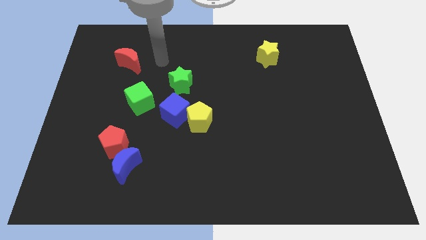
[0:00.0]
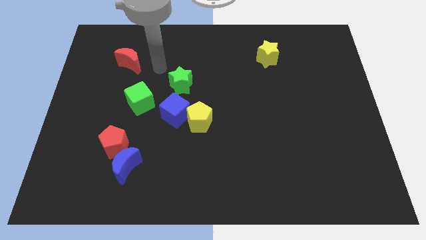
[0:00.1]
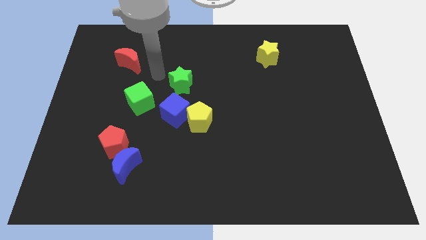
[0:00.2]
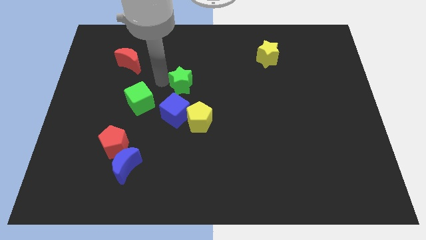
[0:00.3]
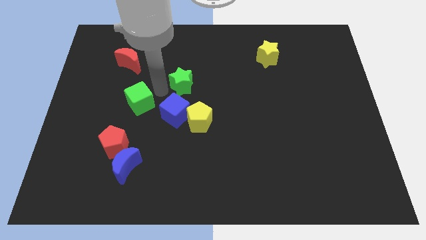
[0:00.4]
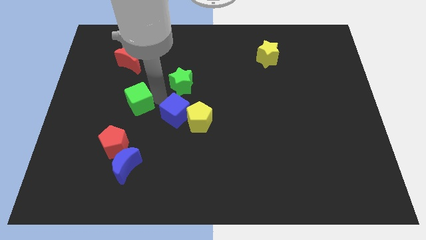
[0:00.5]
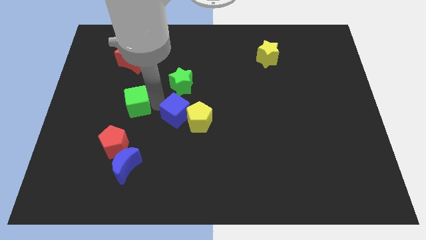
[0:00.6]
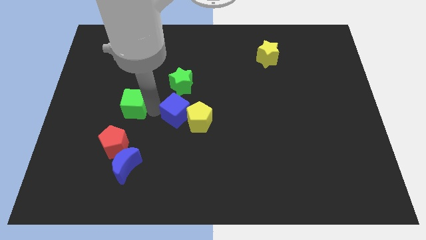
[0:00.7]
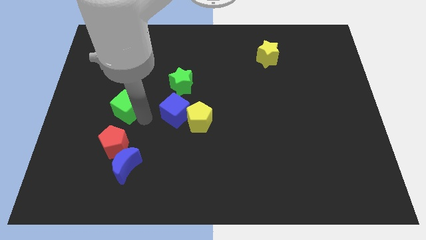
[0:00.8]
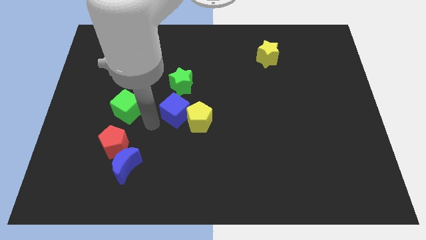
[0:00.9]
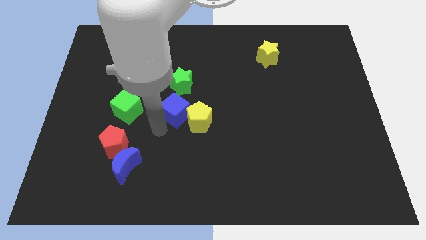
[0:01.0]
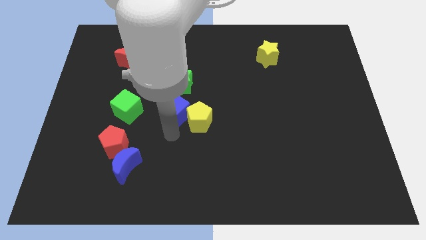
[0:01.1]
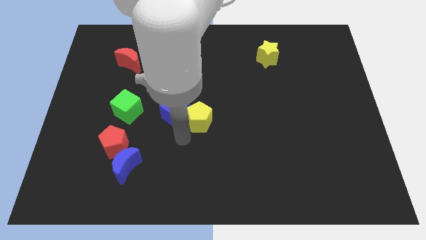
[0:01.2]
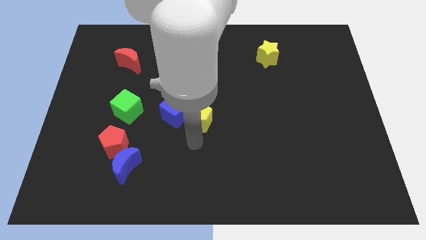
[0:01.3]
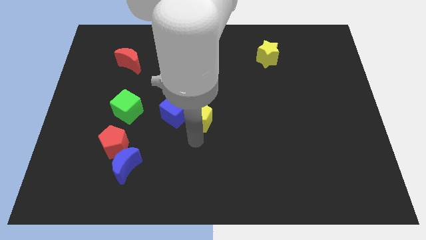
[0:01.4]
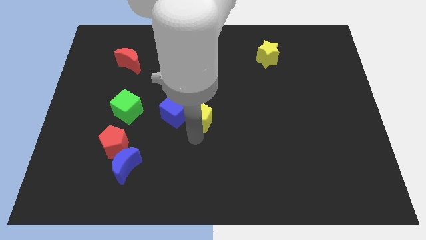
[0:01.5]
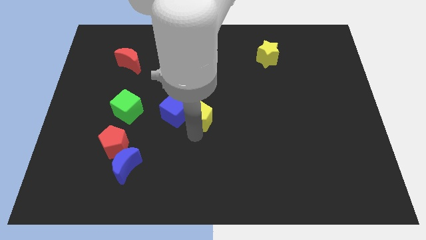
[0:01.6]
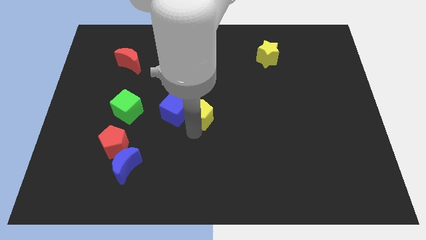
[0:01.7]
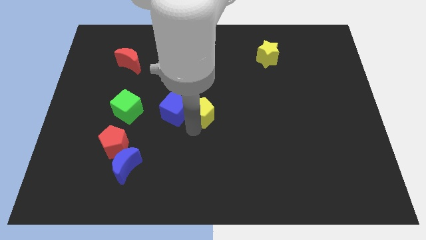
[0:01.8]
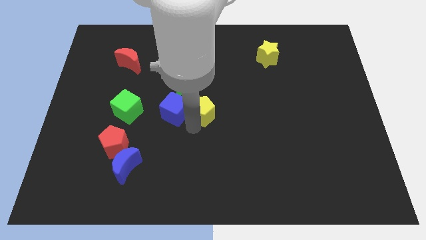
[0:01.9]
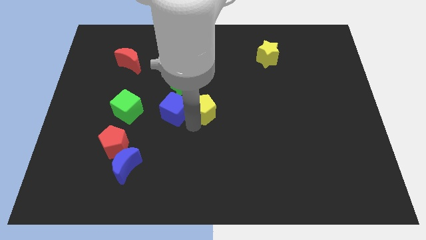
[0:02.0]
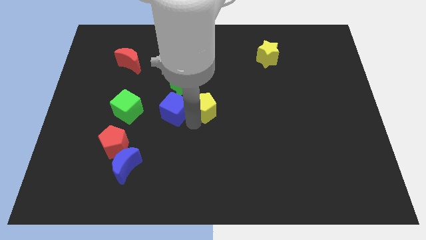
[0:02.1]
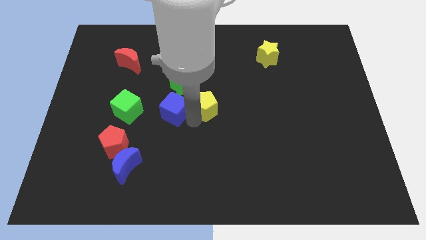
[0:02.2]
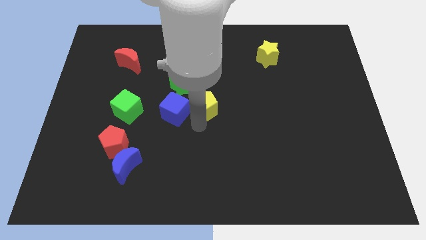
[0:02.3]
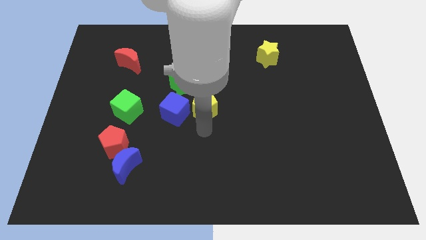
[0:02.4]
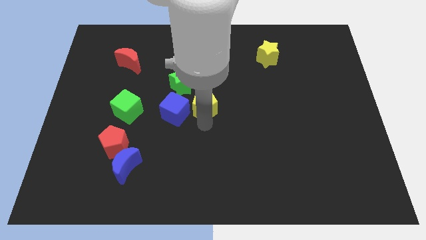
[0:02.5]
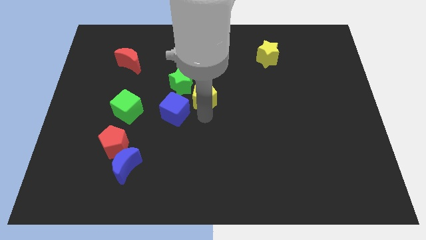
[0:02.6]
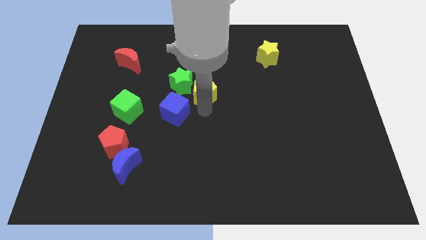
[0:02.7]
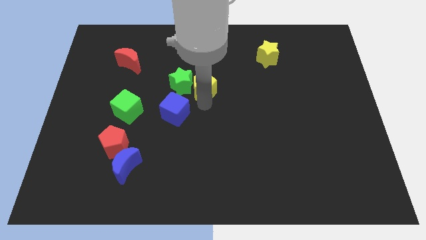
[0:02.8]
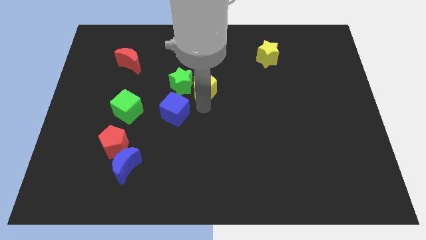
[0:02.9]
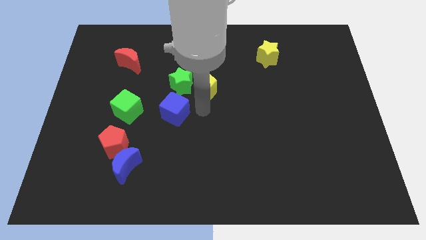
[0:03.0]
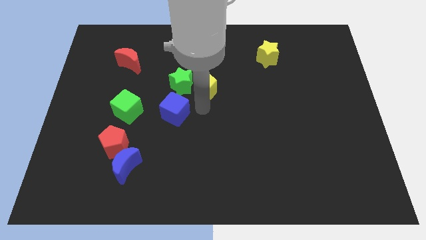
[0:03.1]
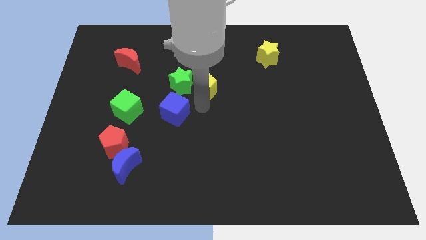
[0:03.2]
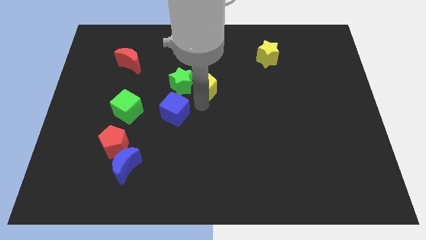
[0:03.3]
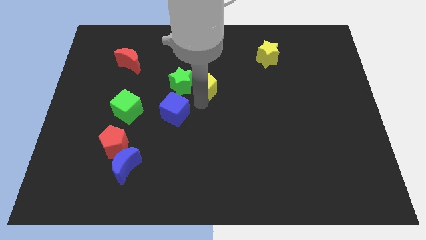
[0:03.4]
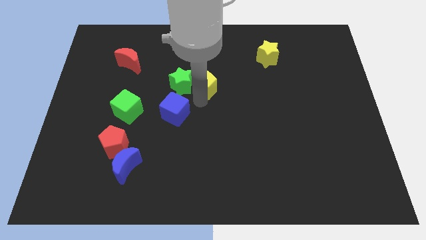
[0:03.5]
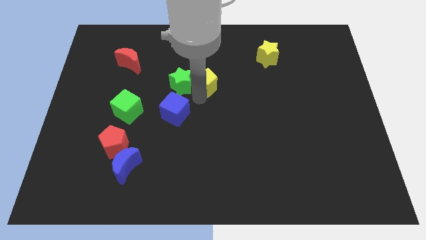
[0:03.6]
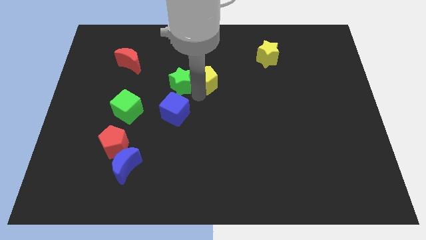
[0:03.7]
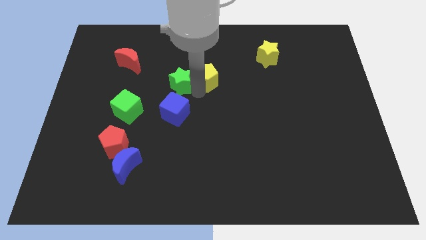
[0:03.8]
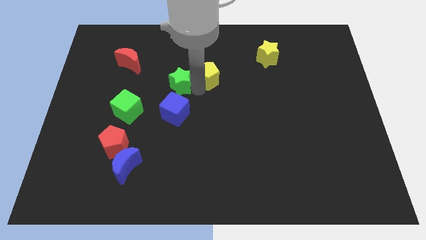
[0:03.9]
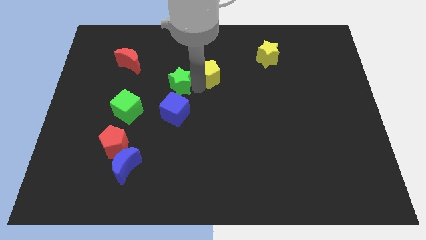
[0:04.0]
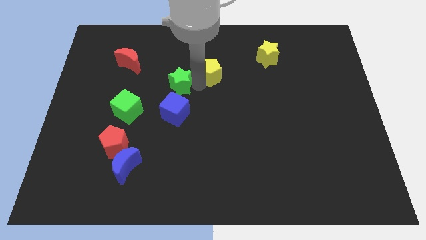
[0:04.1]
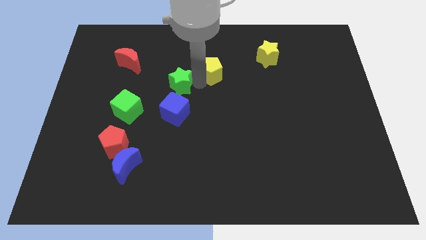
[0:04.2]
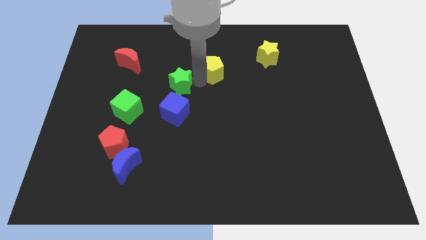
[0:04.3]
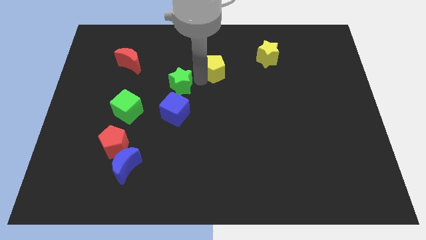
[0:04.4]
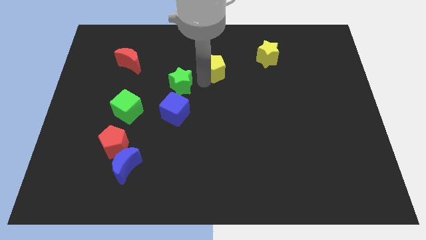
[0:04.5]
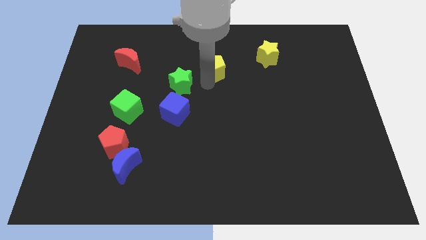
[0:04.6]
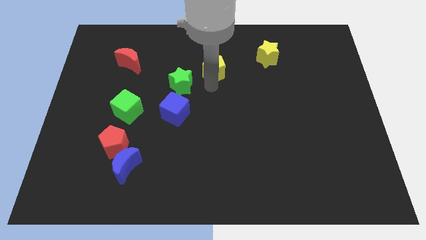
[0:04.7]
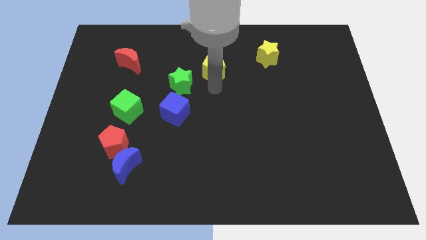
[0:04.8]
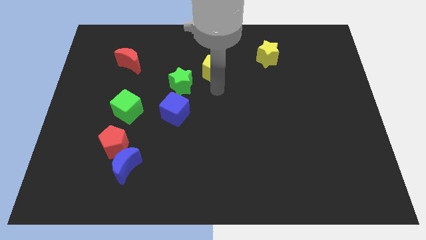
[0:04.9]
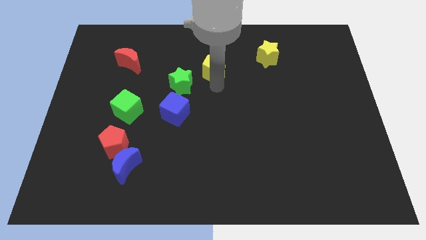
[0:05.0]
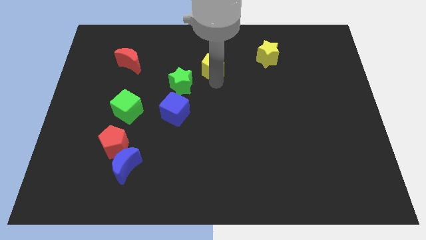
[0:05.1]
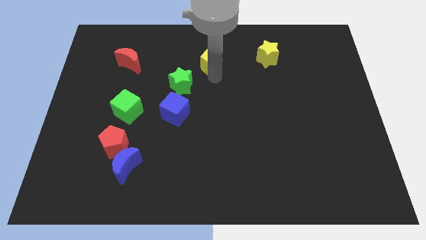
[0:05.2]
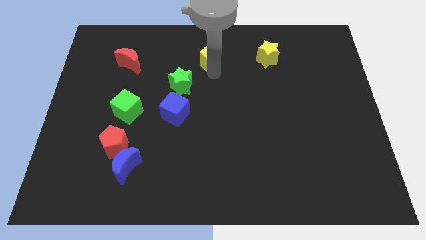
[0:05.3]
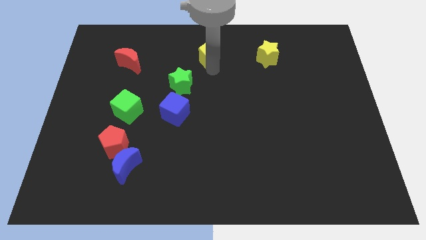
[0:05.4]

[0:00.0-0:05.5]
slide the yellow pentagon to the top
